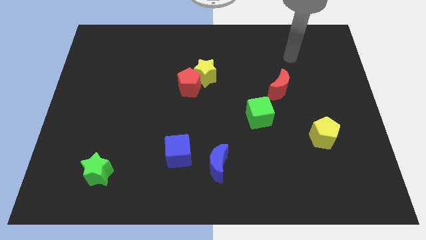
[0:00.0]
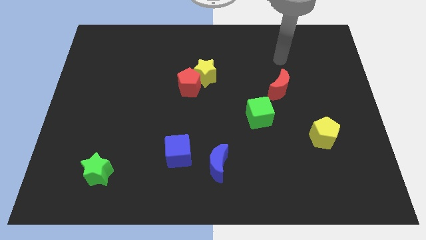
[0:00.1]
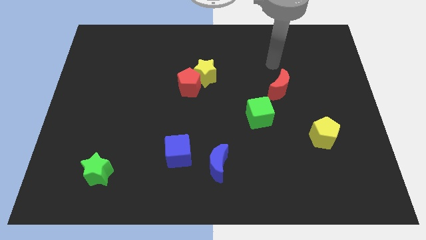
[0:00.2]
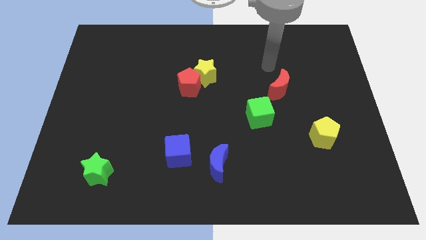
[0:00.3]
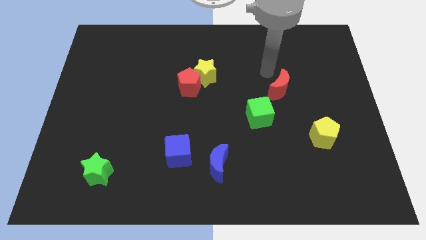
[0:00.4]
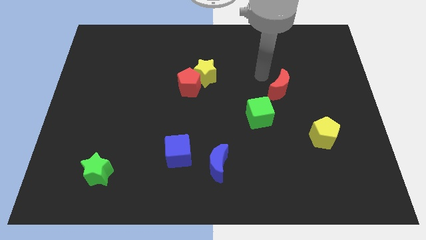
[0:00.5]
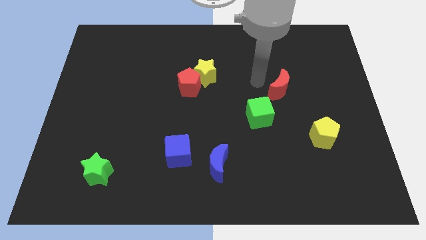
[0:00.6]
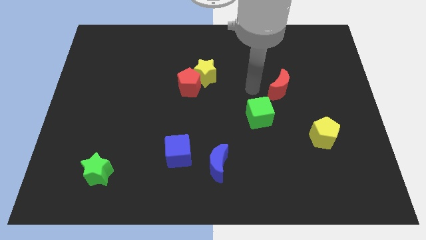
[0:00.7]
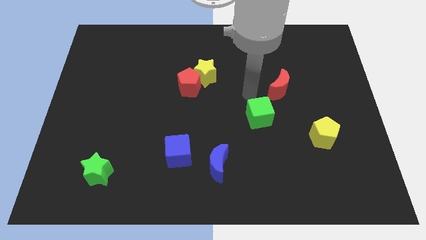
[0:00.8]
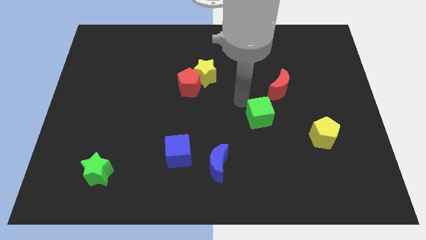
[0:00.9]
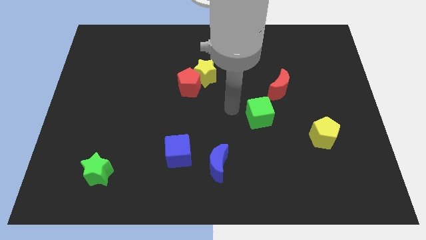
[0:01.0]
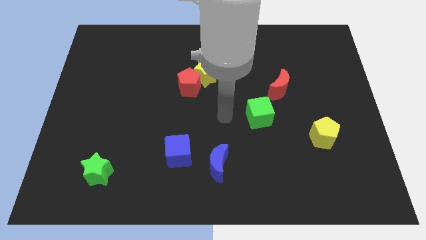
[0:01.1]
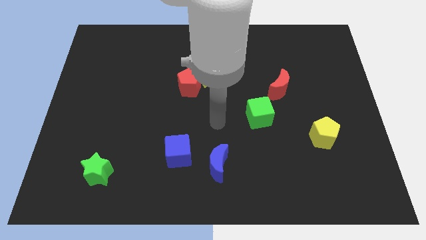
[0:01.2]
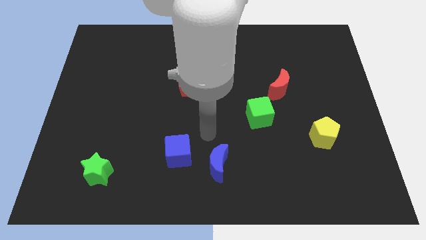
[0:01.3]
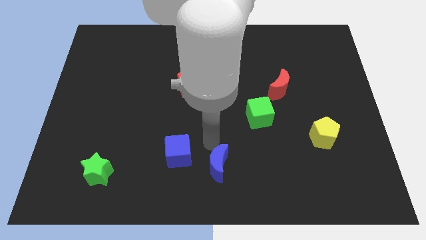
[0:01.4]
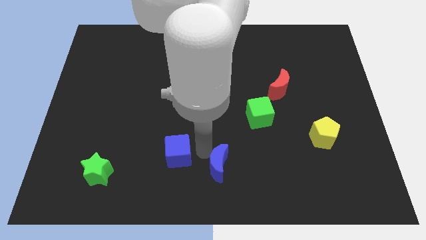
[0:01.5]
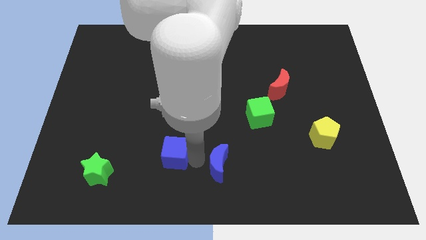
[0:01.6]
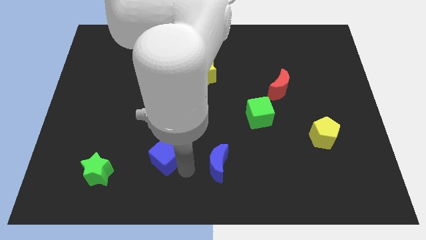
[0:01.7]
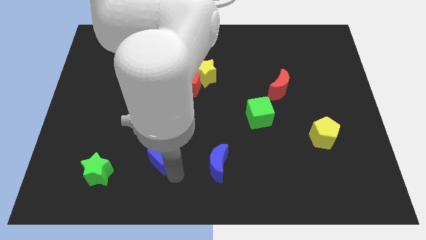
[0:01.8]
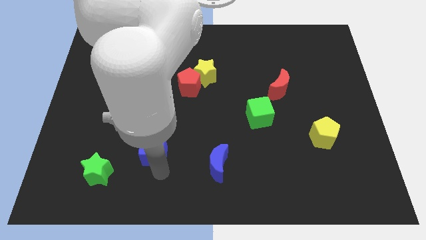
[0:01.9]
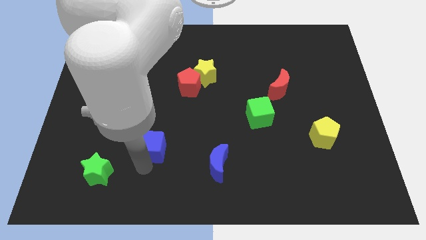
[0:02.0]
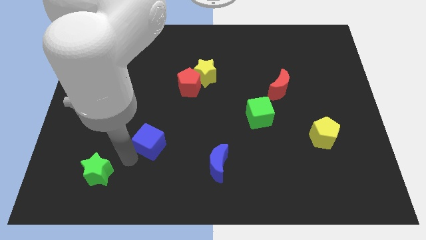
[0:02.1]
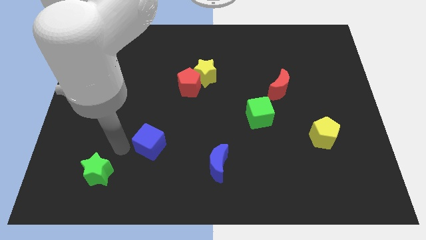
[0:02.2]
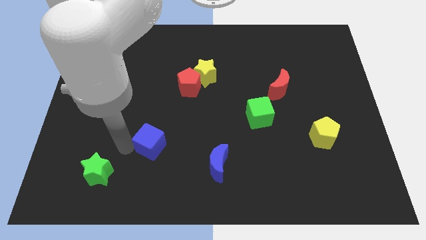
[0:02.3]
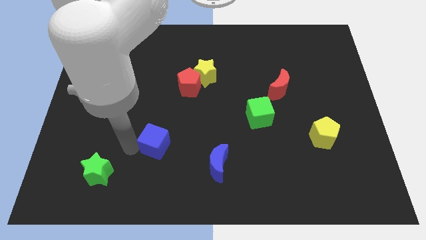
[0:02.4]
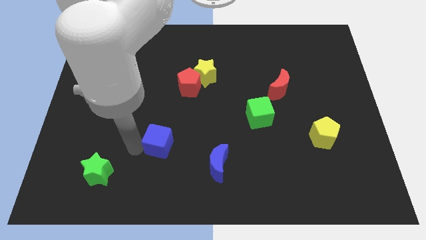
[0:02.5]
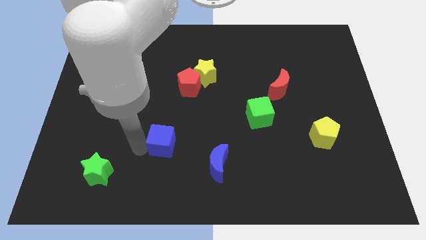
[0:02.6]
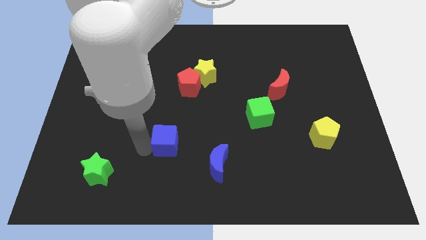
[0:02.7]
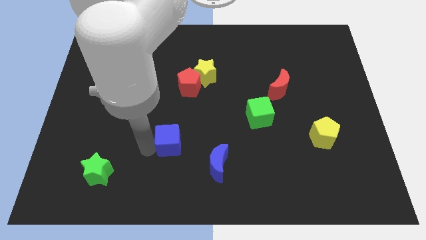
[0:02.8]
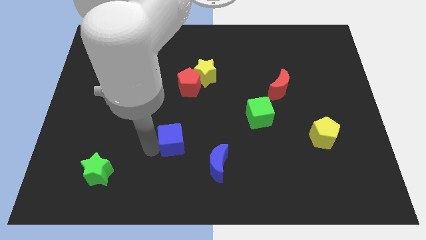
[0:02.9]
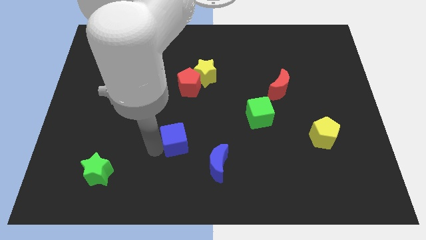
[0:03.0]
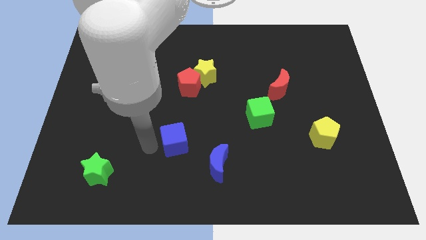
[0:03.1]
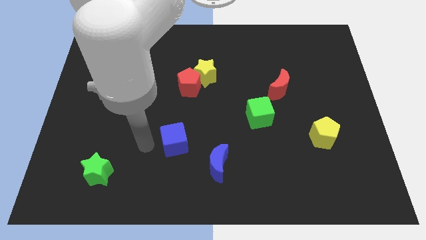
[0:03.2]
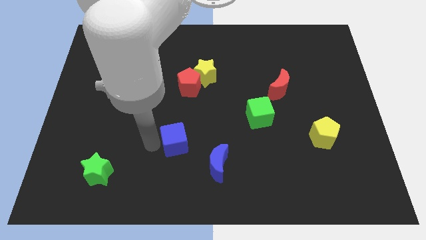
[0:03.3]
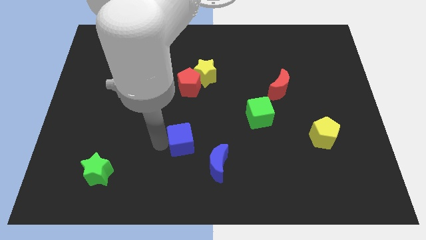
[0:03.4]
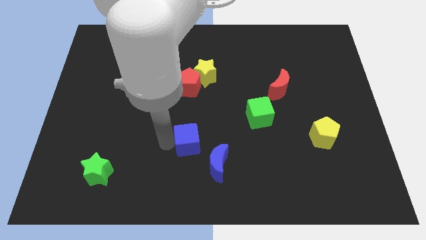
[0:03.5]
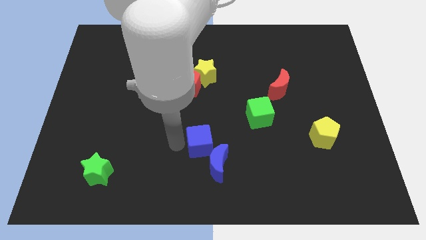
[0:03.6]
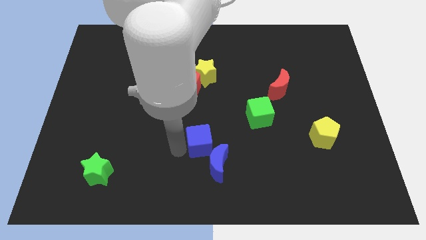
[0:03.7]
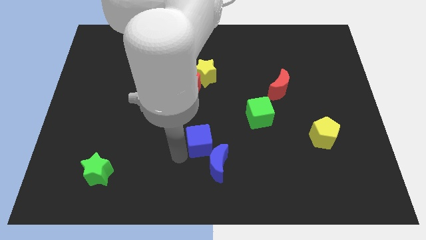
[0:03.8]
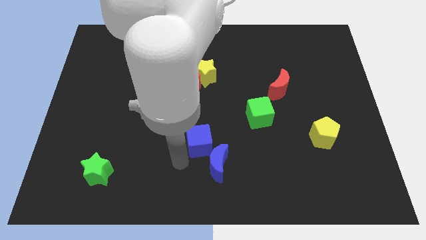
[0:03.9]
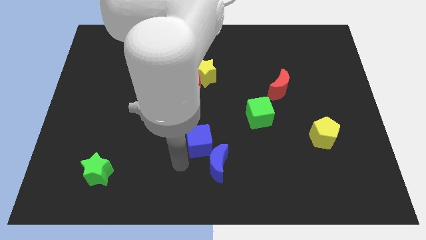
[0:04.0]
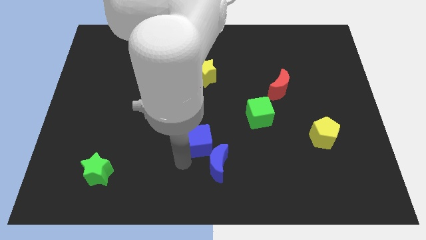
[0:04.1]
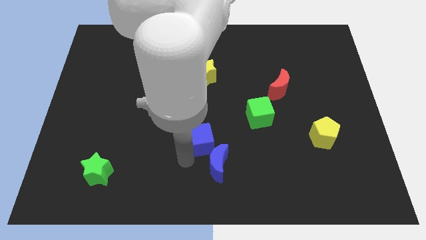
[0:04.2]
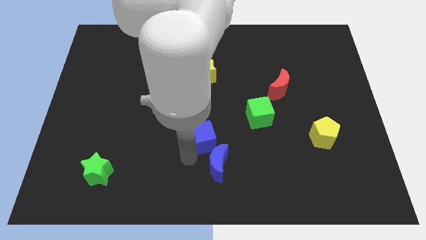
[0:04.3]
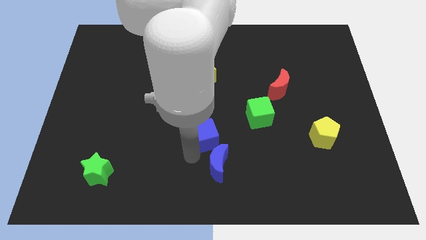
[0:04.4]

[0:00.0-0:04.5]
move the blue cube up and right a little bit

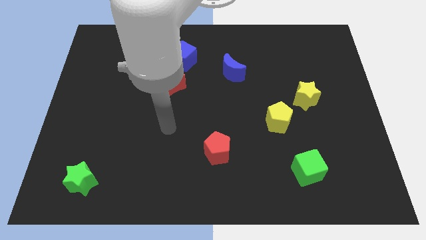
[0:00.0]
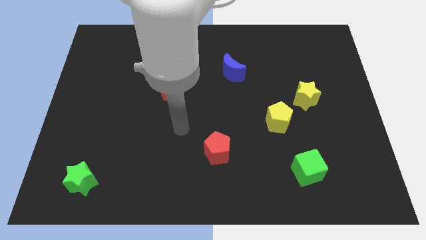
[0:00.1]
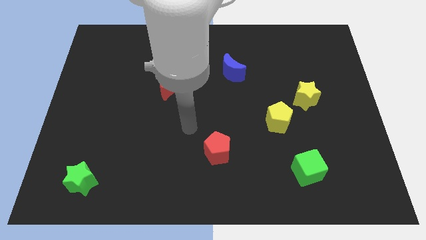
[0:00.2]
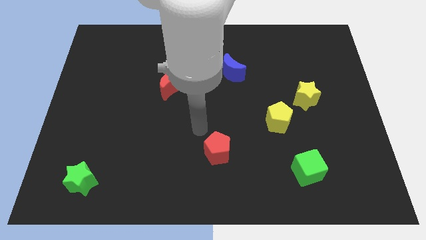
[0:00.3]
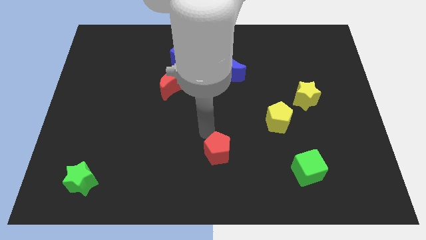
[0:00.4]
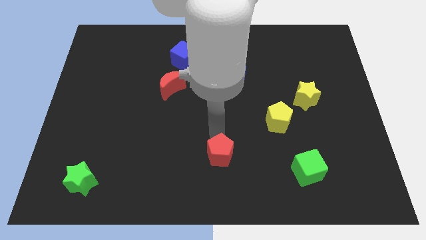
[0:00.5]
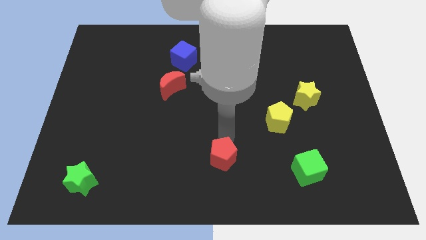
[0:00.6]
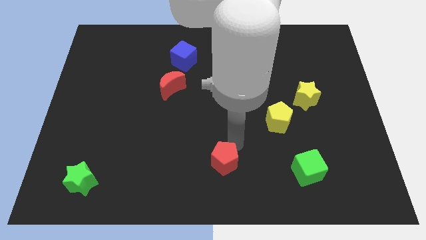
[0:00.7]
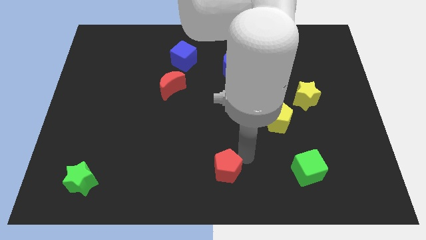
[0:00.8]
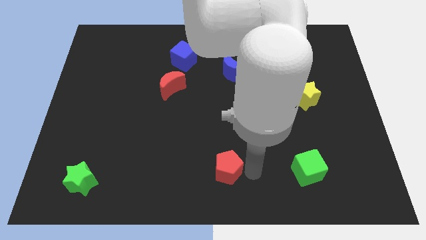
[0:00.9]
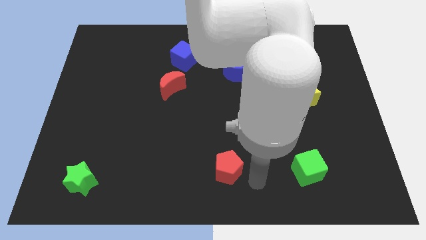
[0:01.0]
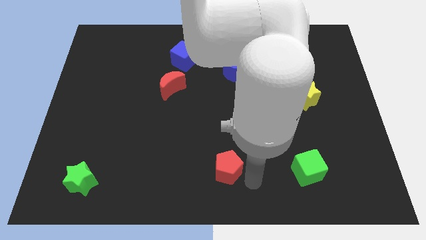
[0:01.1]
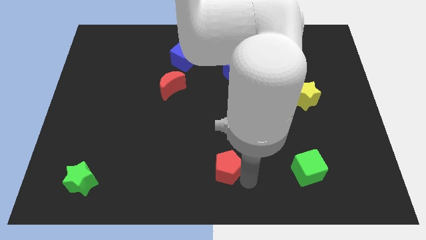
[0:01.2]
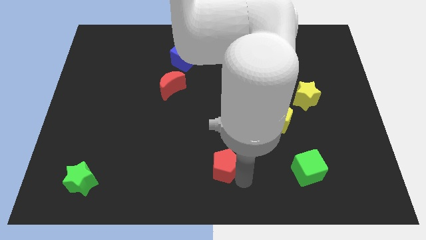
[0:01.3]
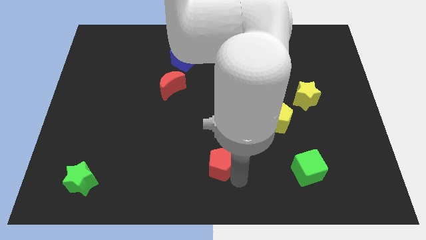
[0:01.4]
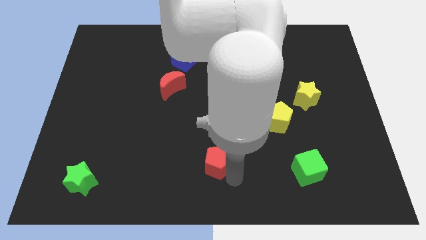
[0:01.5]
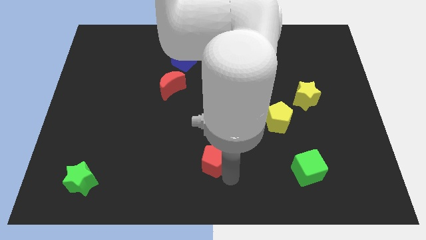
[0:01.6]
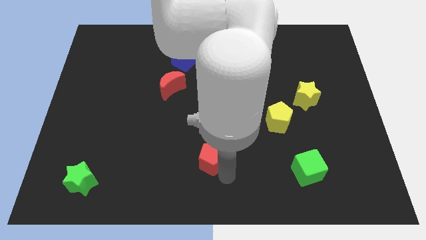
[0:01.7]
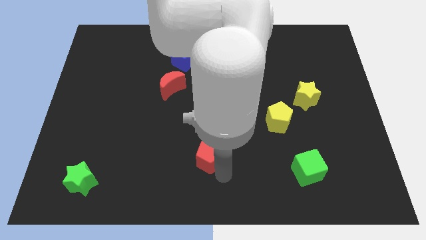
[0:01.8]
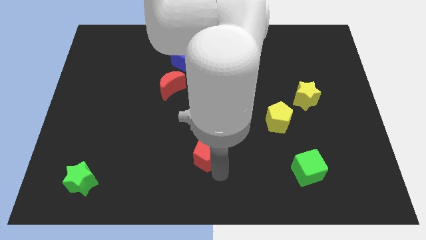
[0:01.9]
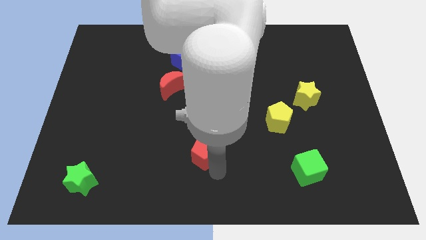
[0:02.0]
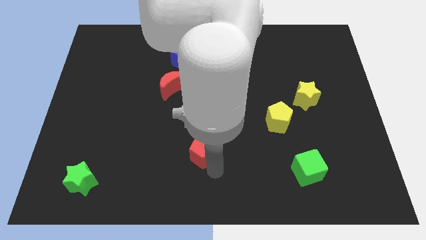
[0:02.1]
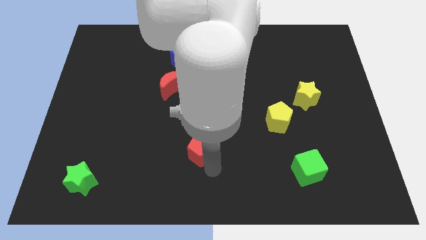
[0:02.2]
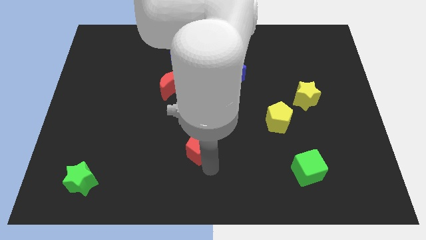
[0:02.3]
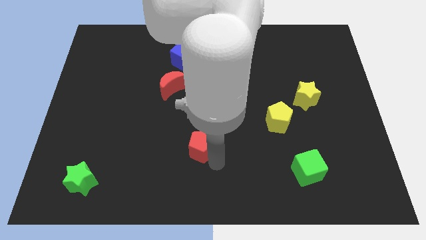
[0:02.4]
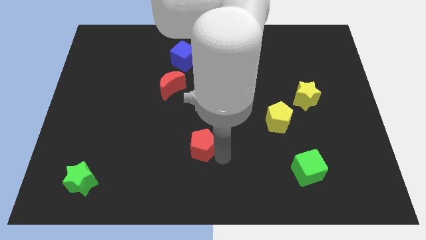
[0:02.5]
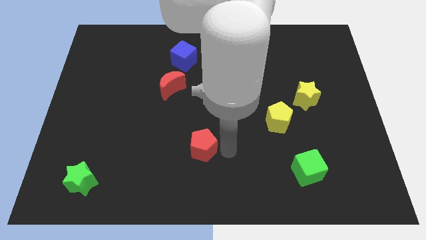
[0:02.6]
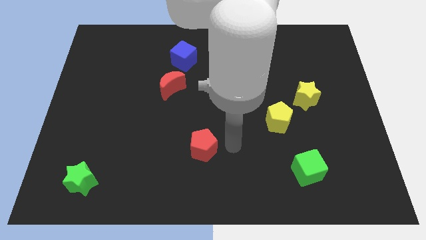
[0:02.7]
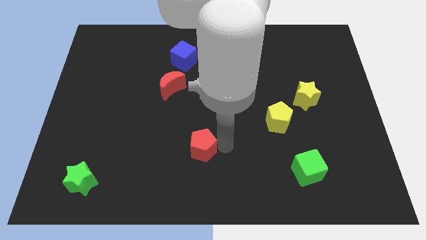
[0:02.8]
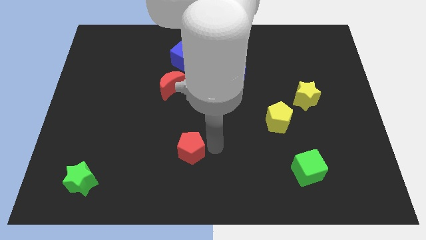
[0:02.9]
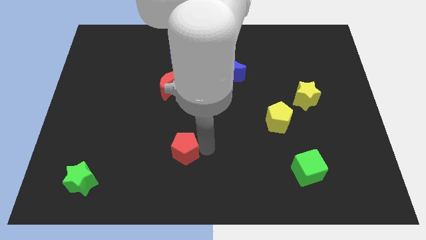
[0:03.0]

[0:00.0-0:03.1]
slide the red pentagon to the left a little bit

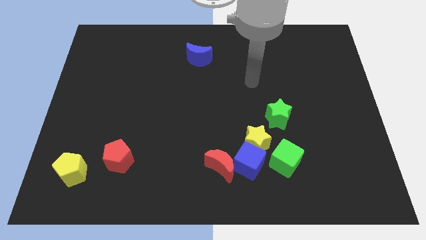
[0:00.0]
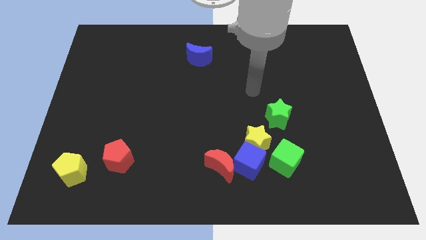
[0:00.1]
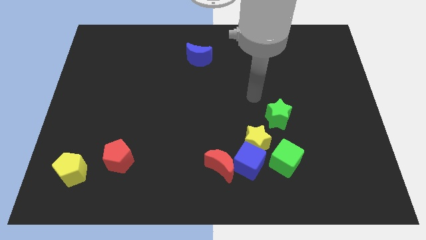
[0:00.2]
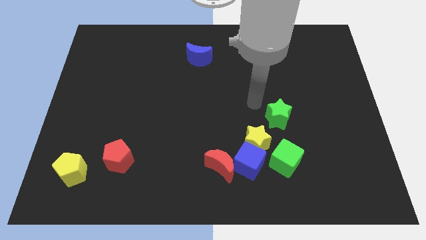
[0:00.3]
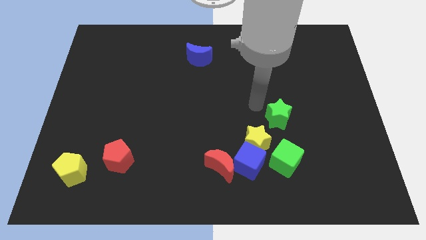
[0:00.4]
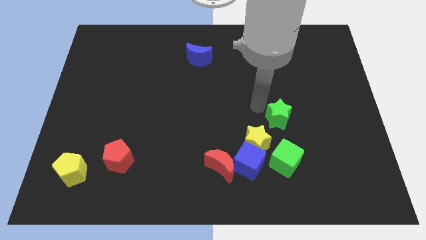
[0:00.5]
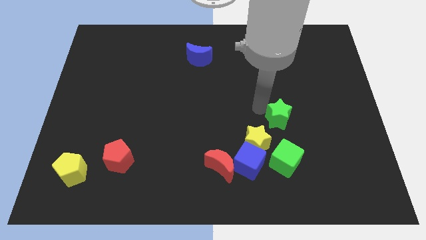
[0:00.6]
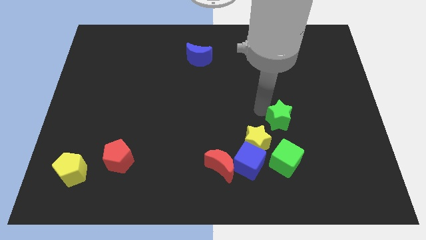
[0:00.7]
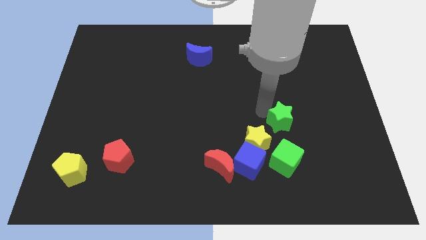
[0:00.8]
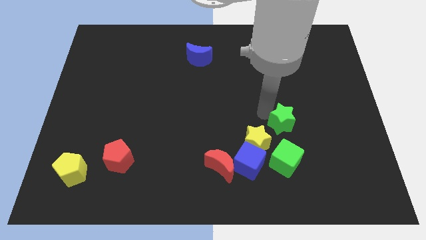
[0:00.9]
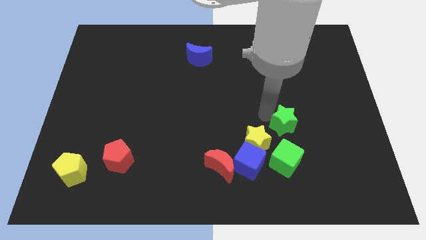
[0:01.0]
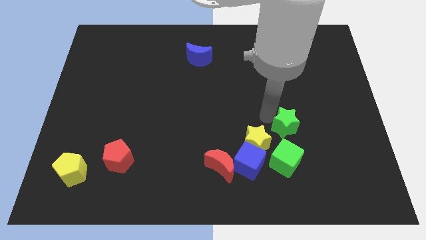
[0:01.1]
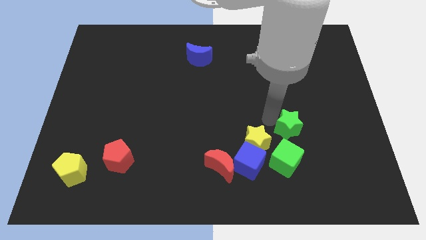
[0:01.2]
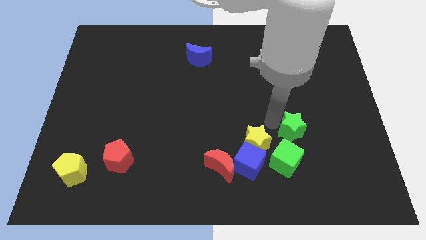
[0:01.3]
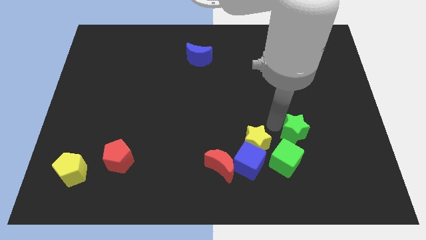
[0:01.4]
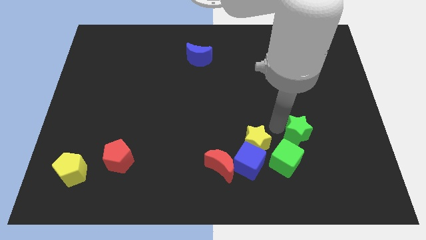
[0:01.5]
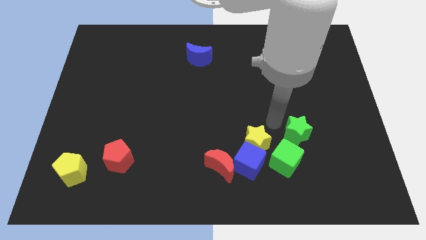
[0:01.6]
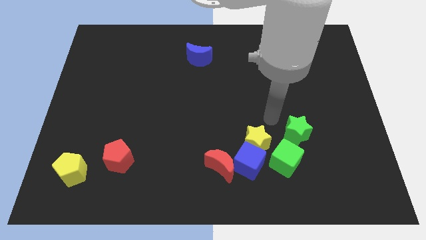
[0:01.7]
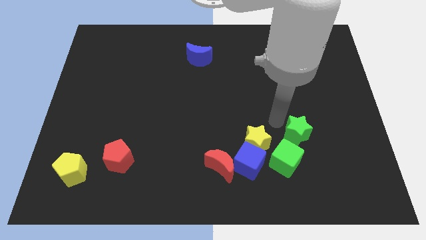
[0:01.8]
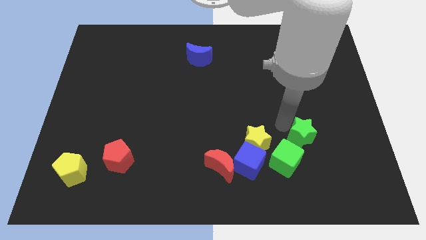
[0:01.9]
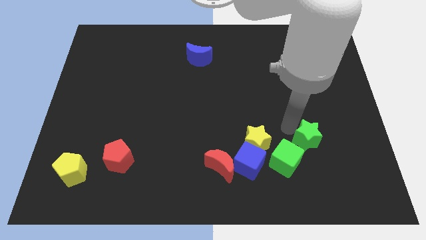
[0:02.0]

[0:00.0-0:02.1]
slide the green star downwards and then to the right slightly
